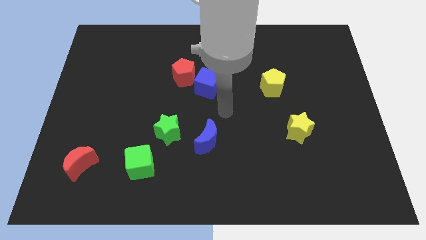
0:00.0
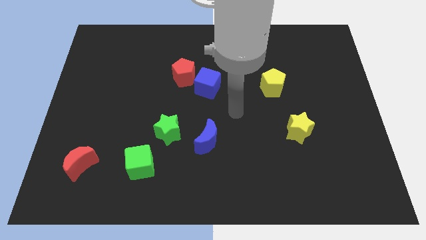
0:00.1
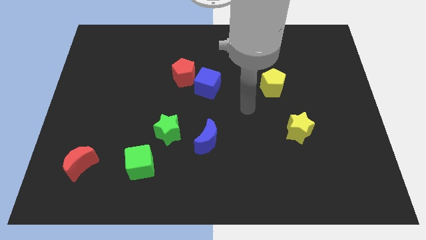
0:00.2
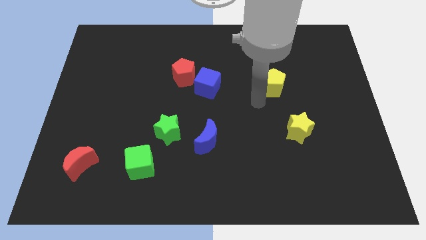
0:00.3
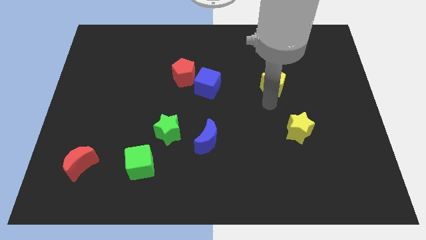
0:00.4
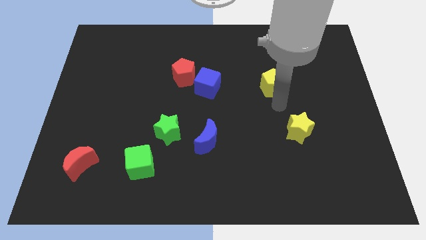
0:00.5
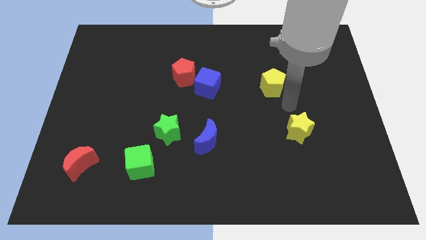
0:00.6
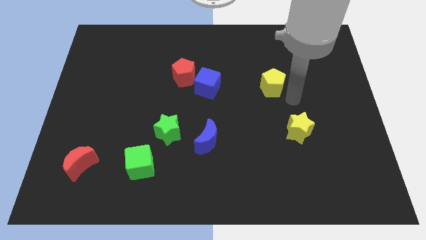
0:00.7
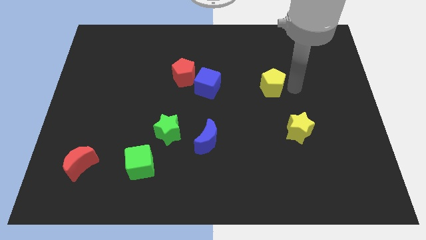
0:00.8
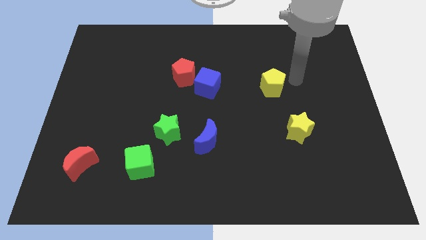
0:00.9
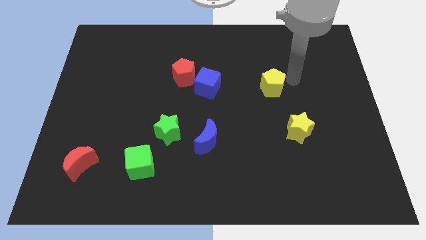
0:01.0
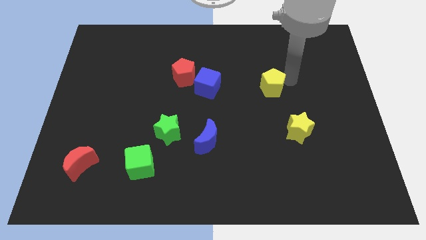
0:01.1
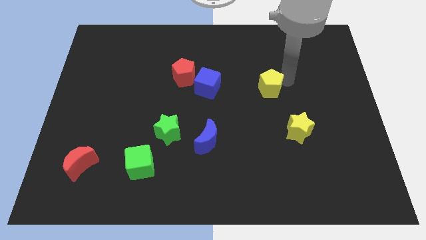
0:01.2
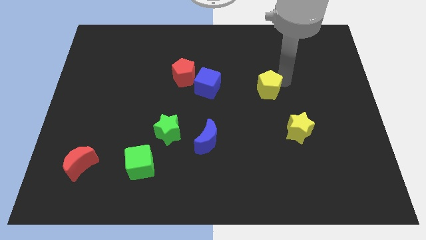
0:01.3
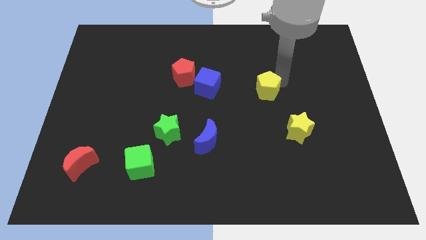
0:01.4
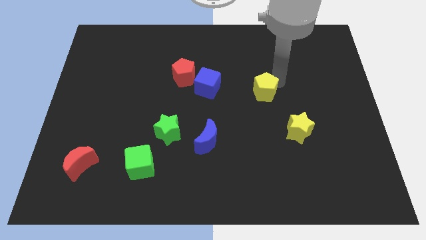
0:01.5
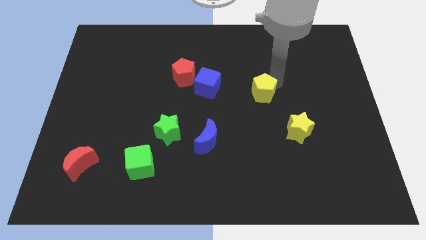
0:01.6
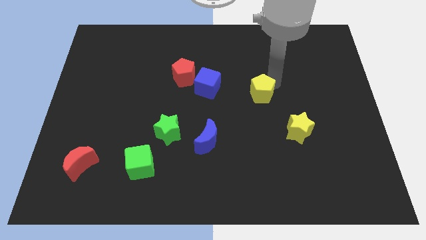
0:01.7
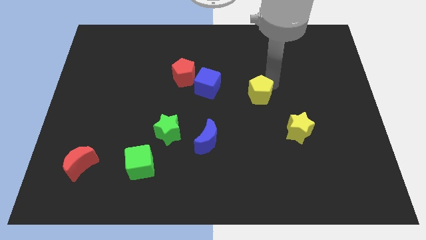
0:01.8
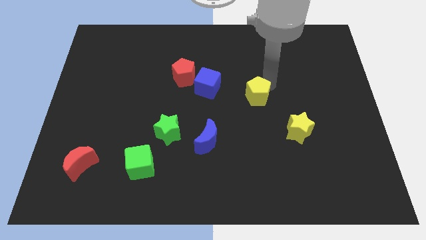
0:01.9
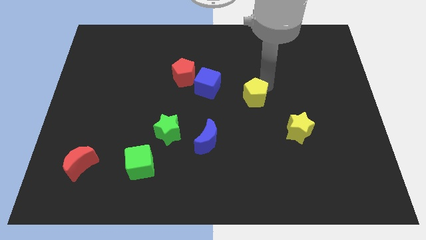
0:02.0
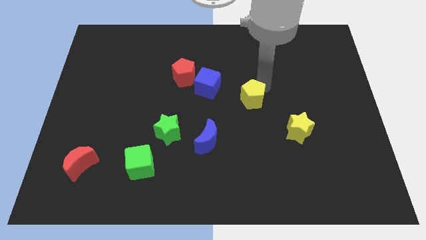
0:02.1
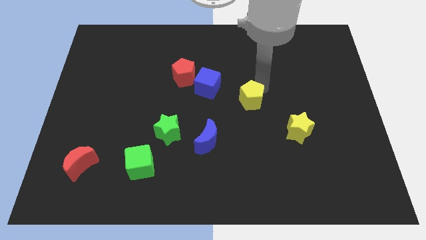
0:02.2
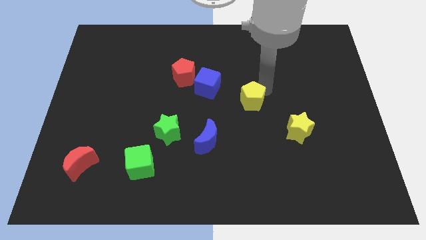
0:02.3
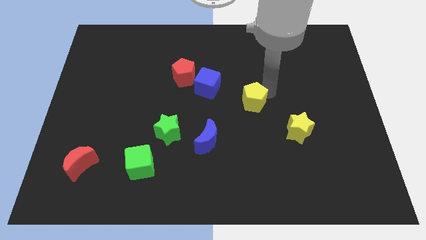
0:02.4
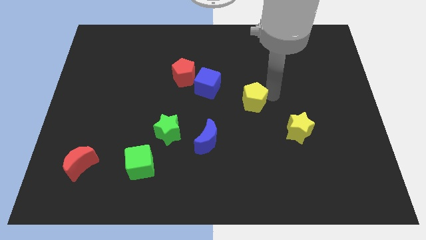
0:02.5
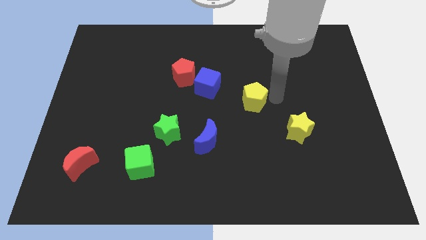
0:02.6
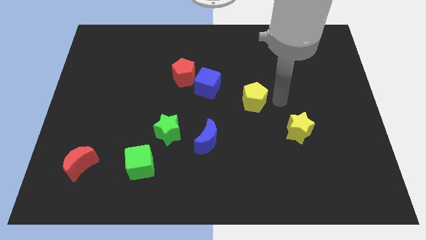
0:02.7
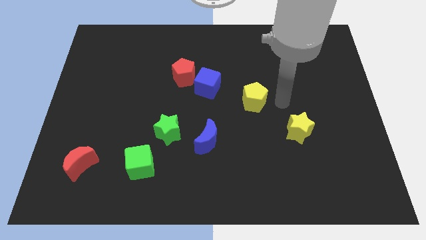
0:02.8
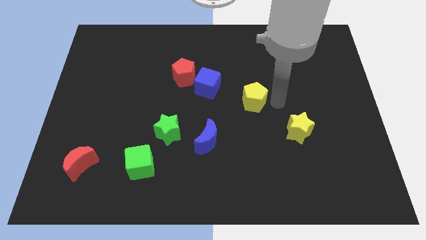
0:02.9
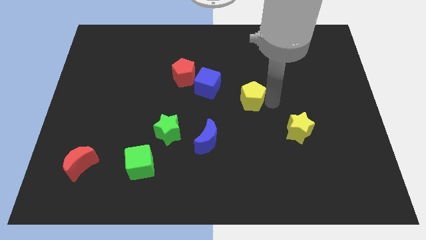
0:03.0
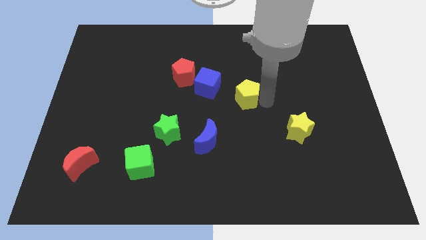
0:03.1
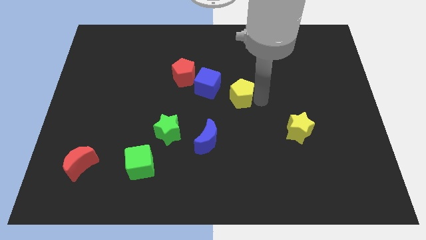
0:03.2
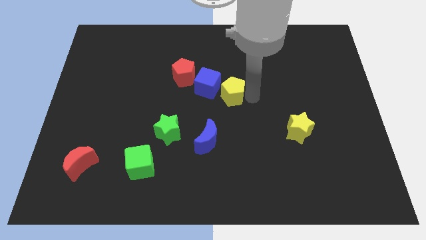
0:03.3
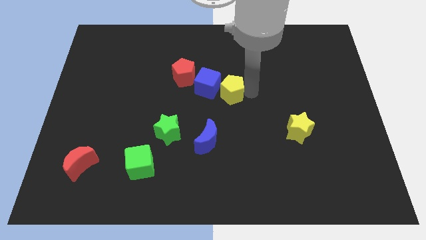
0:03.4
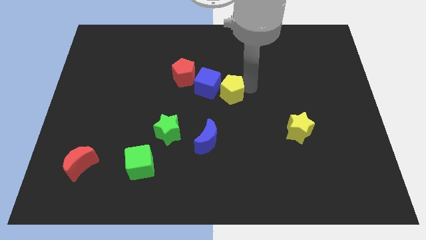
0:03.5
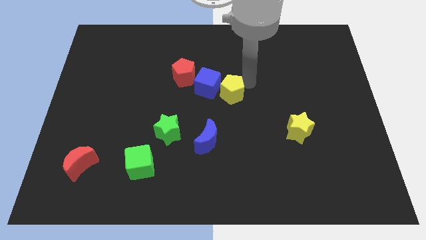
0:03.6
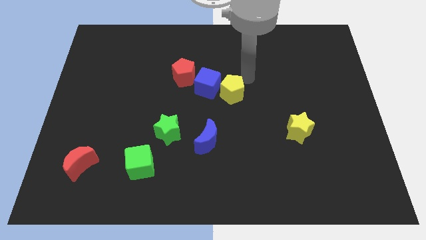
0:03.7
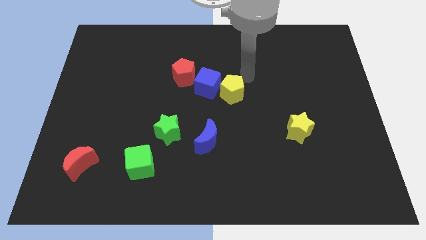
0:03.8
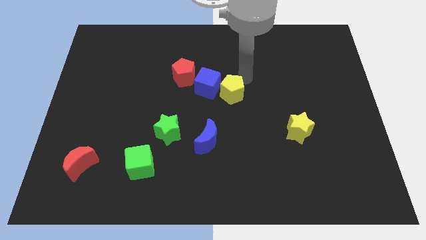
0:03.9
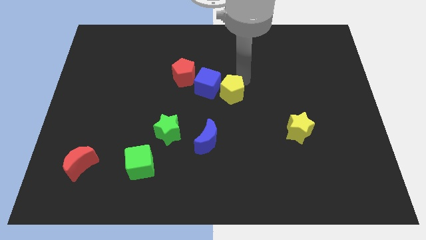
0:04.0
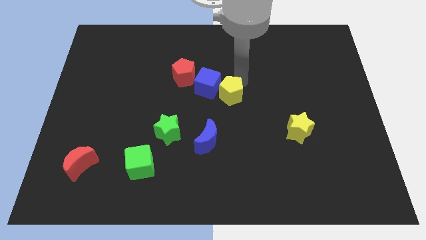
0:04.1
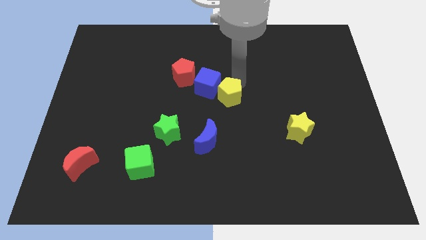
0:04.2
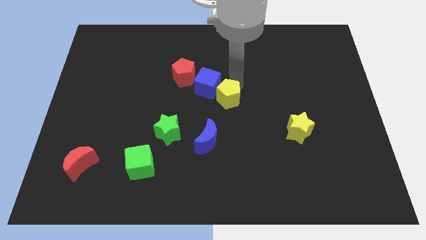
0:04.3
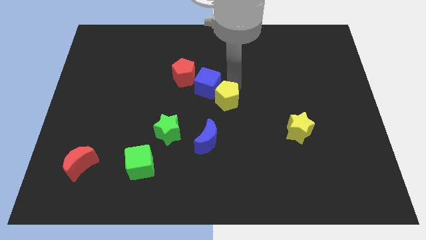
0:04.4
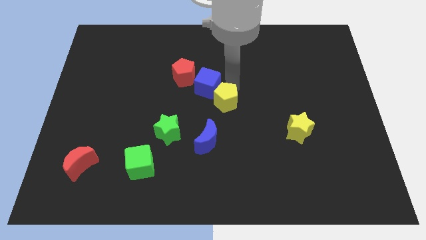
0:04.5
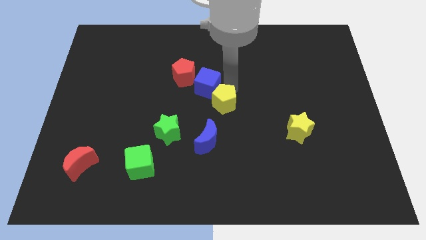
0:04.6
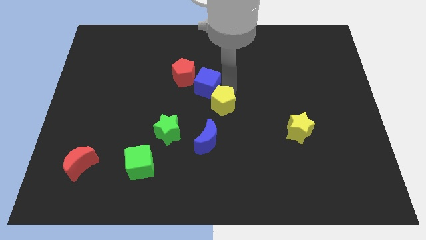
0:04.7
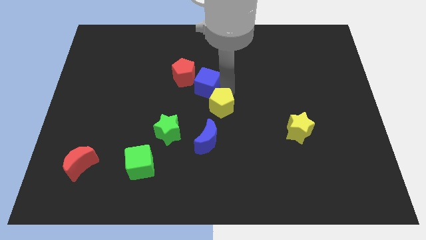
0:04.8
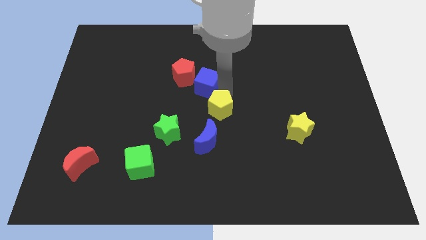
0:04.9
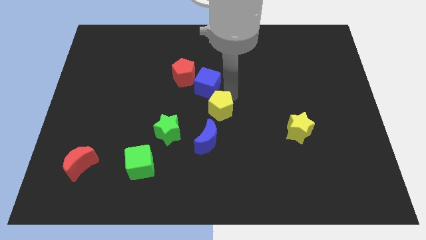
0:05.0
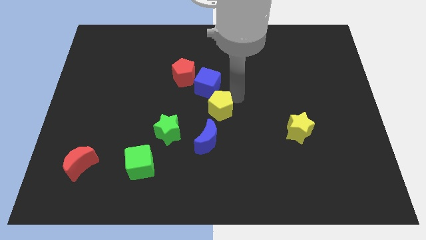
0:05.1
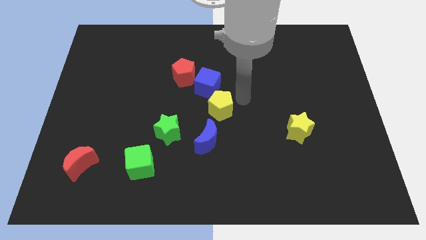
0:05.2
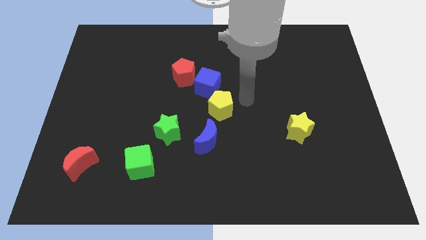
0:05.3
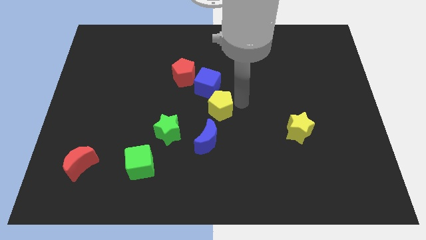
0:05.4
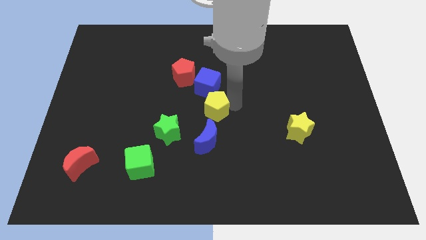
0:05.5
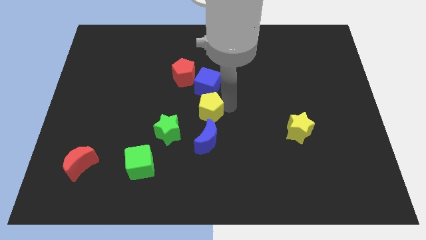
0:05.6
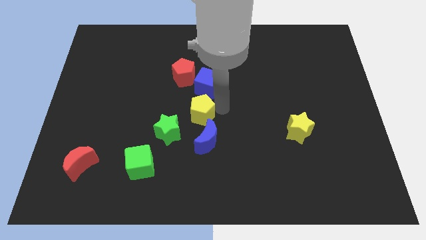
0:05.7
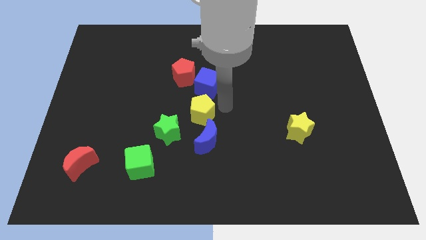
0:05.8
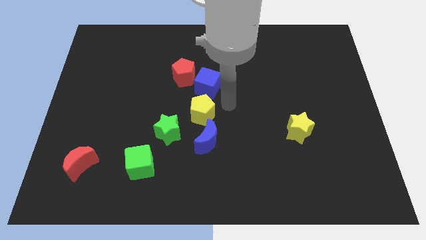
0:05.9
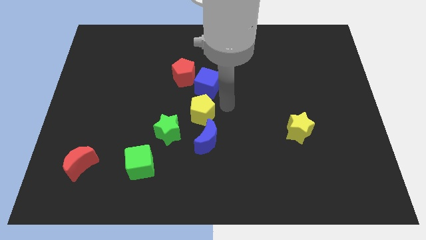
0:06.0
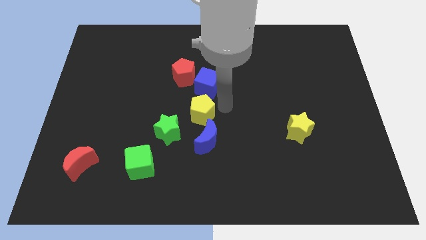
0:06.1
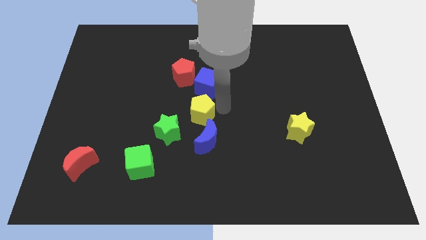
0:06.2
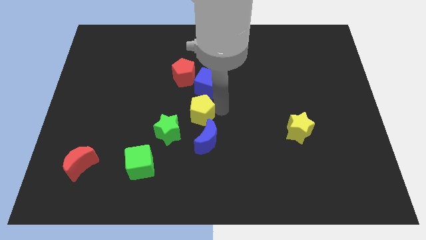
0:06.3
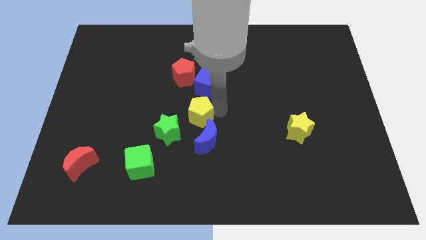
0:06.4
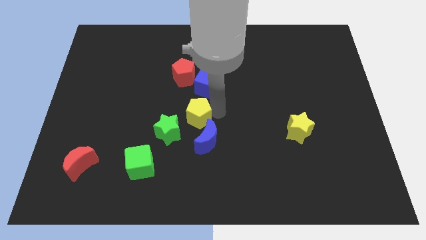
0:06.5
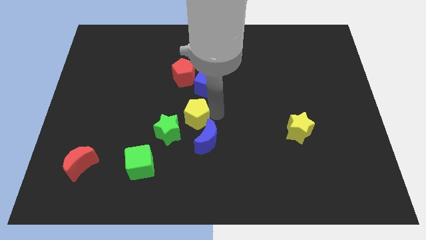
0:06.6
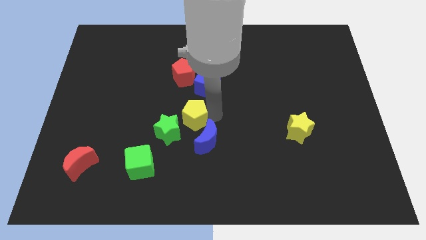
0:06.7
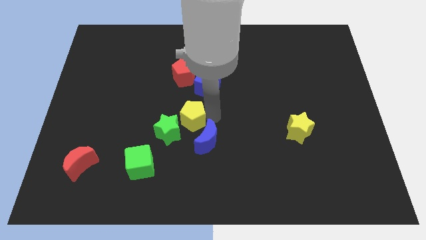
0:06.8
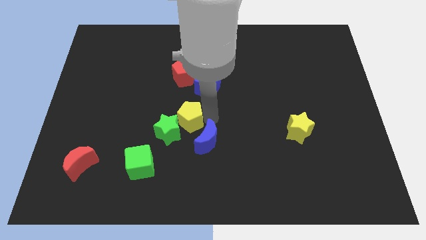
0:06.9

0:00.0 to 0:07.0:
push the yellow pentagon to the green star
